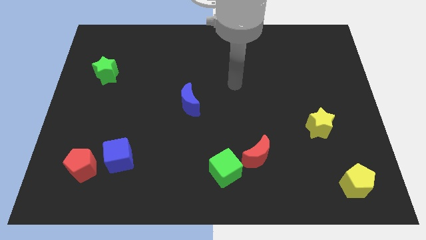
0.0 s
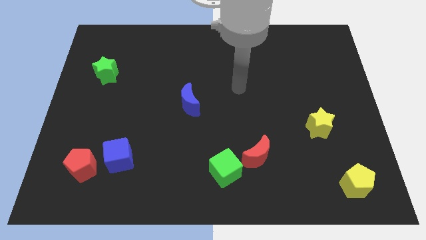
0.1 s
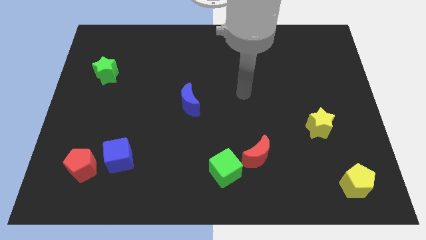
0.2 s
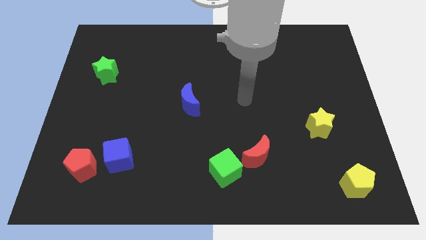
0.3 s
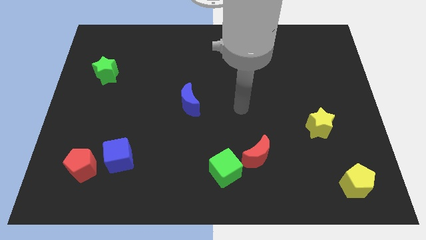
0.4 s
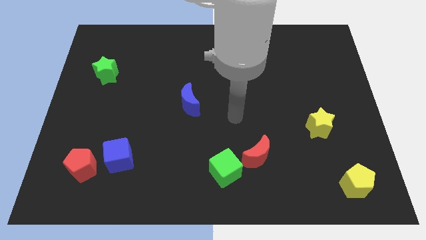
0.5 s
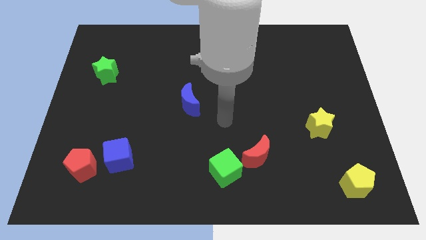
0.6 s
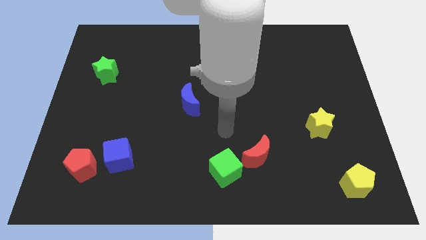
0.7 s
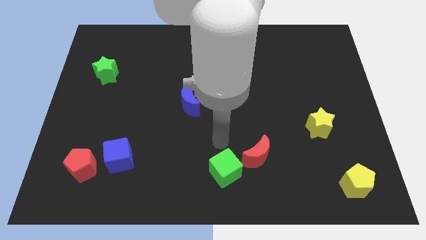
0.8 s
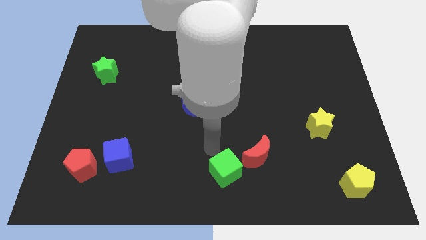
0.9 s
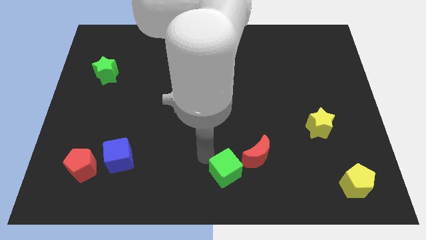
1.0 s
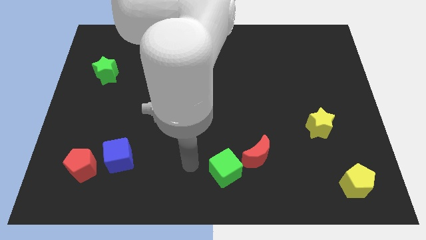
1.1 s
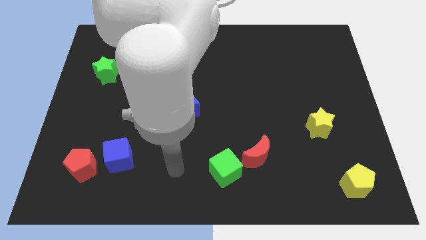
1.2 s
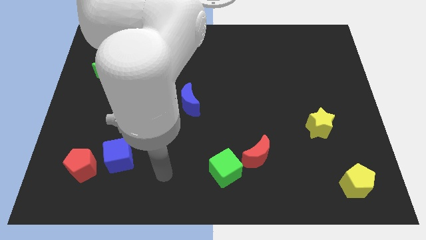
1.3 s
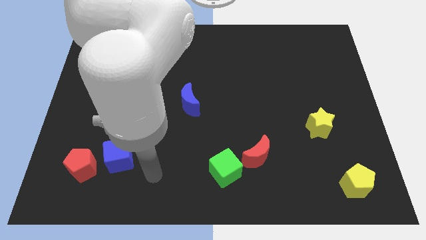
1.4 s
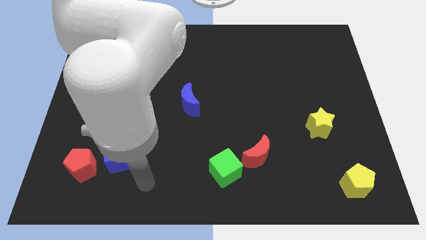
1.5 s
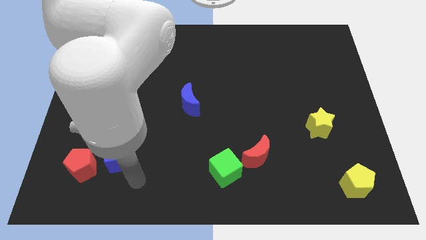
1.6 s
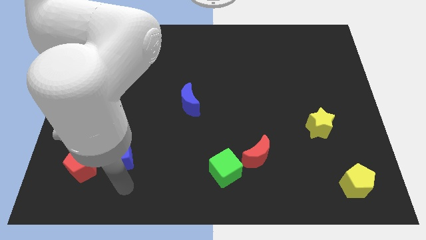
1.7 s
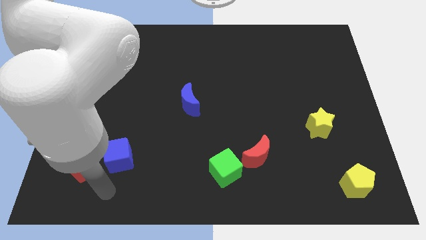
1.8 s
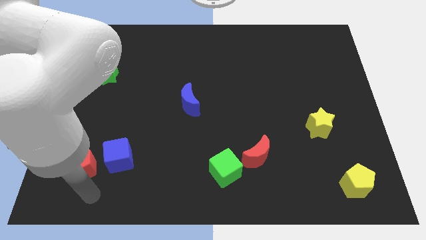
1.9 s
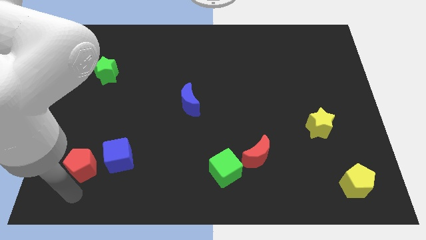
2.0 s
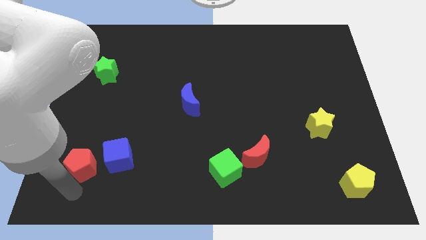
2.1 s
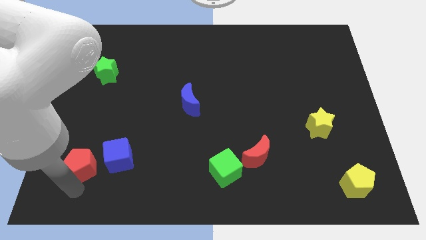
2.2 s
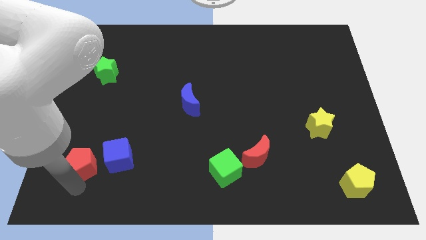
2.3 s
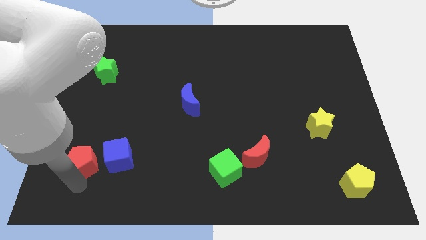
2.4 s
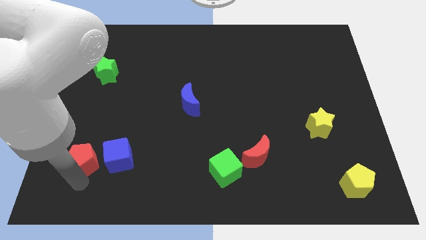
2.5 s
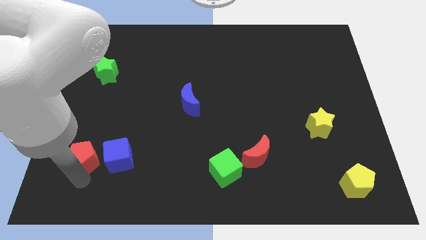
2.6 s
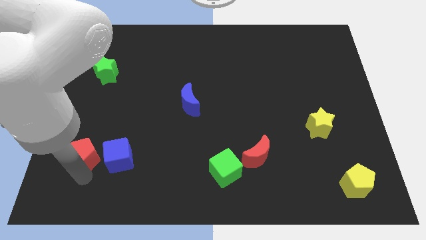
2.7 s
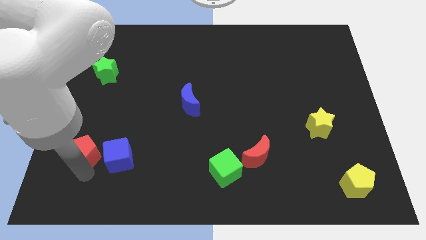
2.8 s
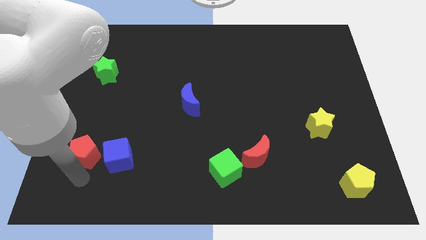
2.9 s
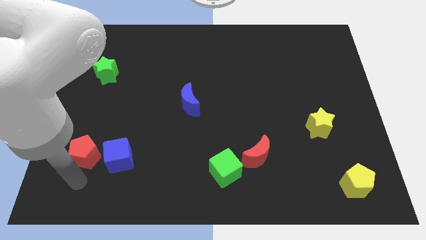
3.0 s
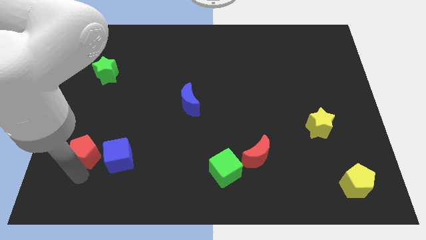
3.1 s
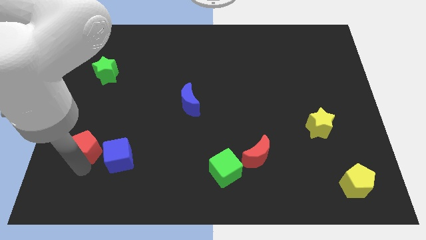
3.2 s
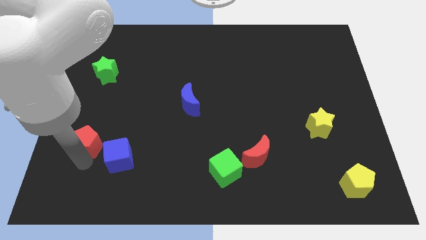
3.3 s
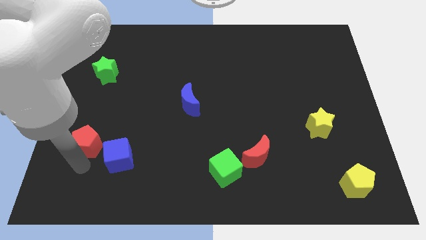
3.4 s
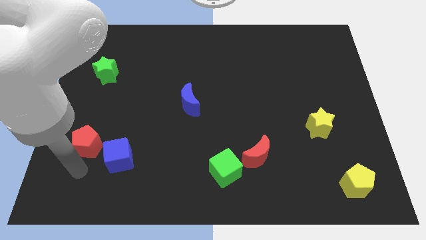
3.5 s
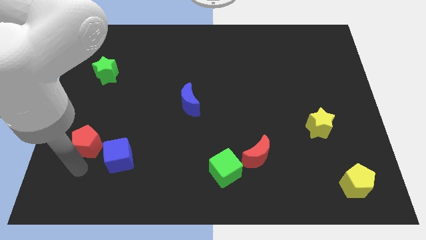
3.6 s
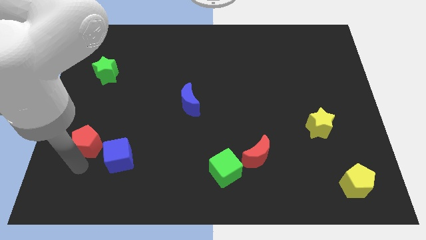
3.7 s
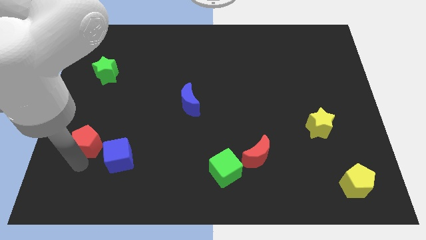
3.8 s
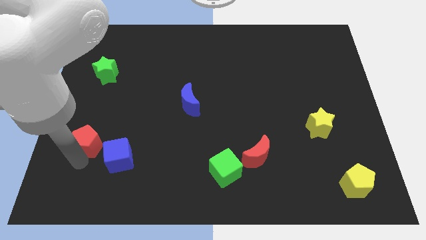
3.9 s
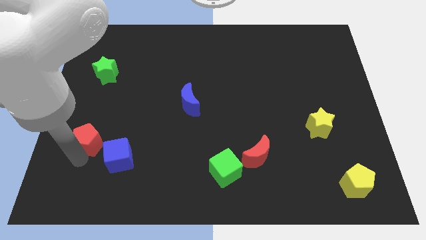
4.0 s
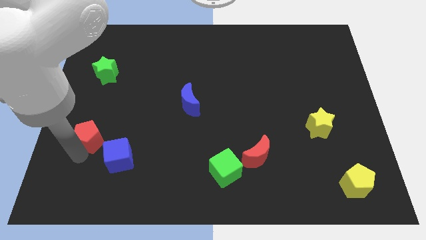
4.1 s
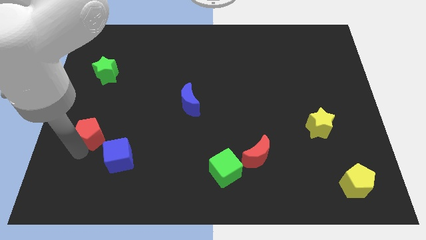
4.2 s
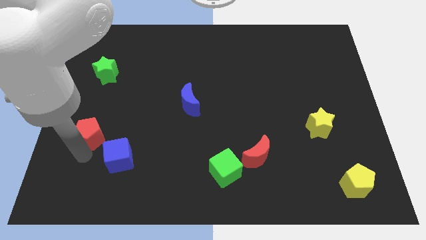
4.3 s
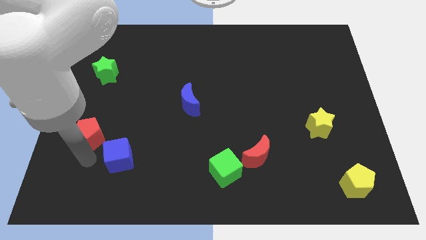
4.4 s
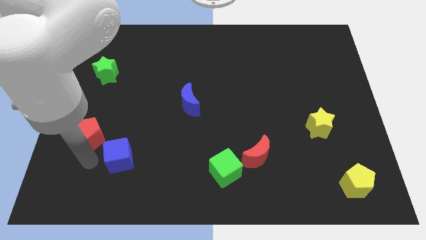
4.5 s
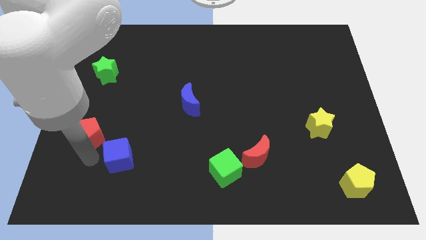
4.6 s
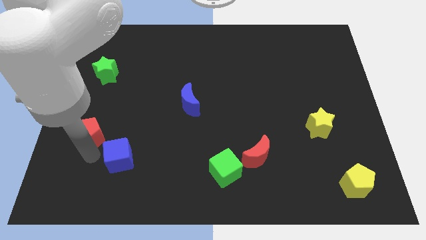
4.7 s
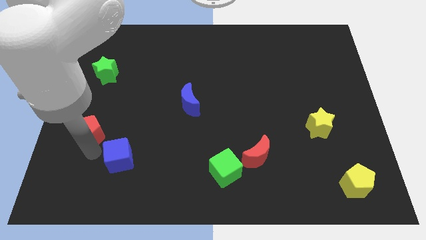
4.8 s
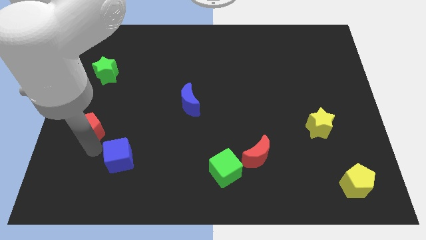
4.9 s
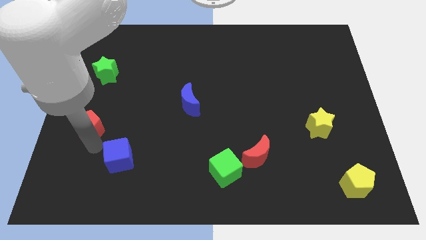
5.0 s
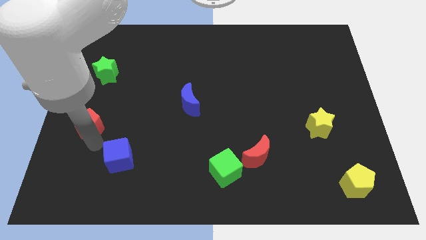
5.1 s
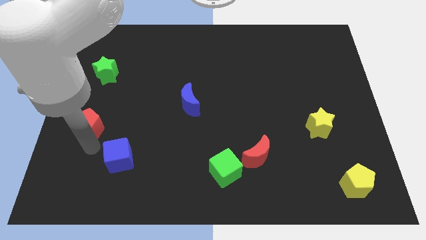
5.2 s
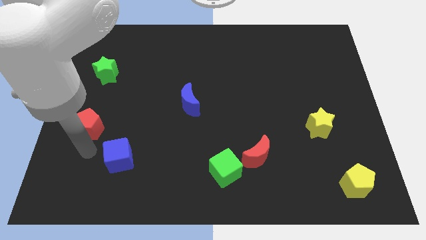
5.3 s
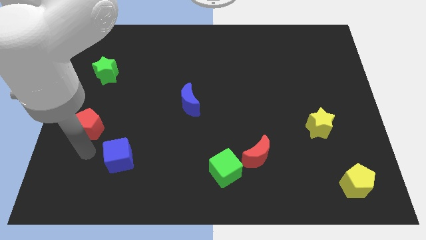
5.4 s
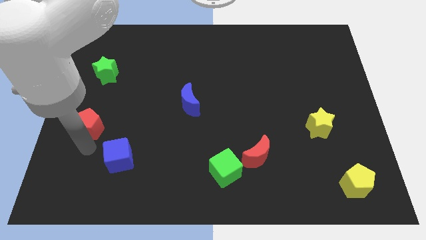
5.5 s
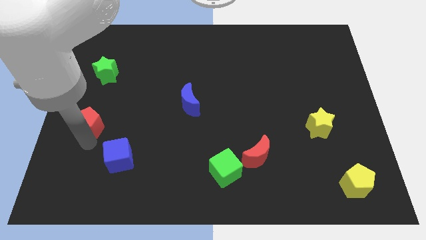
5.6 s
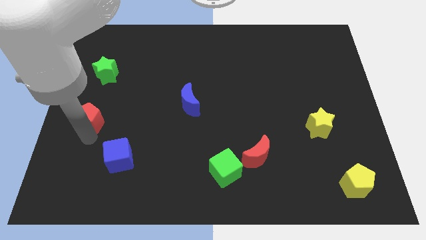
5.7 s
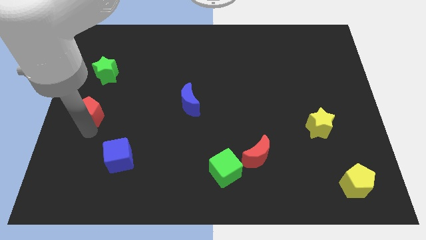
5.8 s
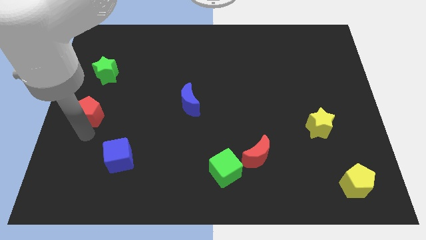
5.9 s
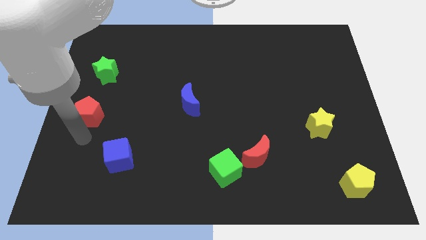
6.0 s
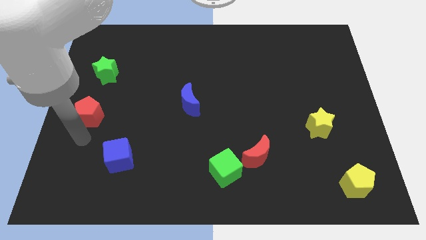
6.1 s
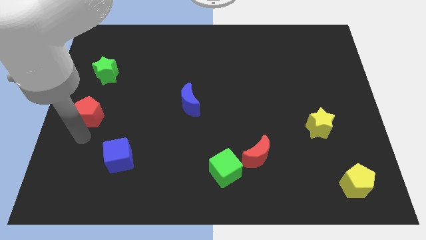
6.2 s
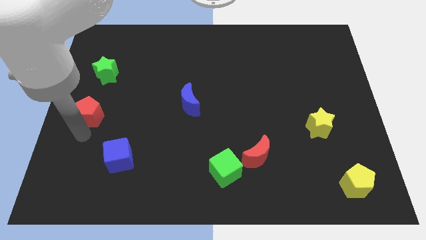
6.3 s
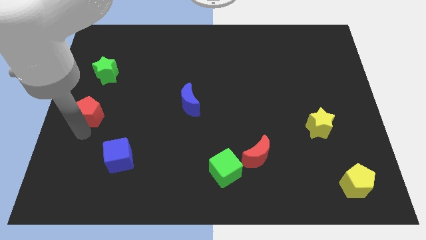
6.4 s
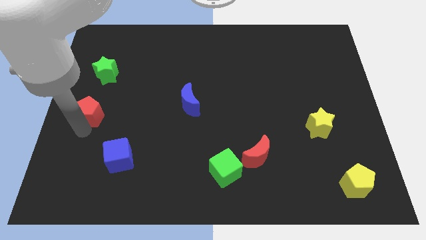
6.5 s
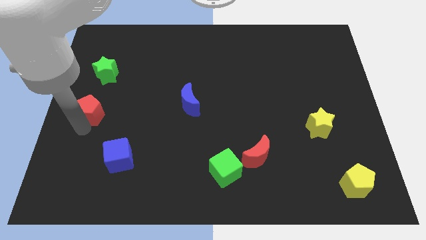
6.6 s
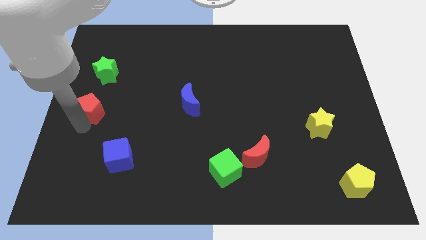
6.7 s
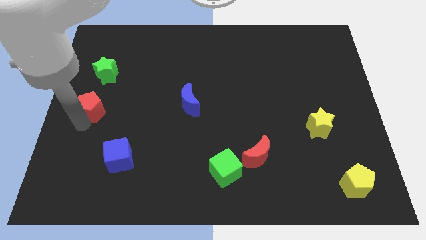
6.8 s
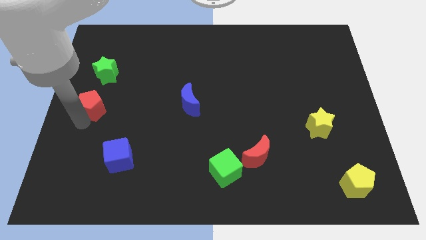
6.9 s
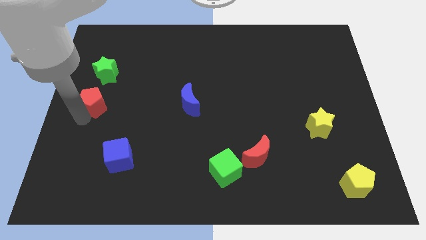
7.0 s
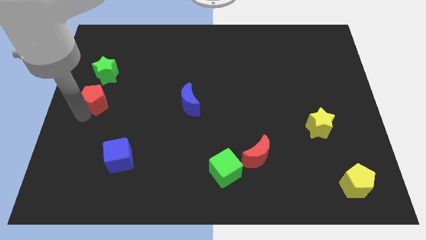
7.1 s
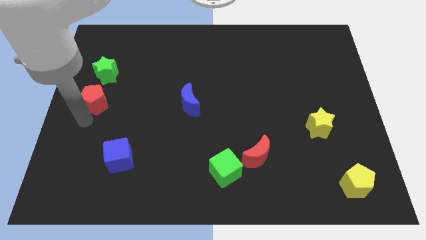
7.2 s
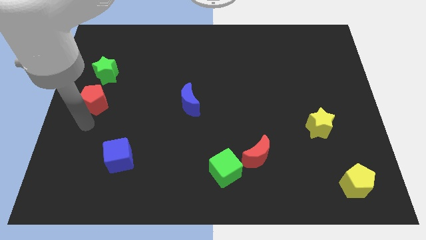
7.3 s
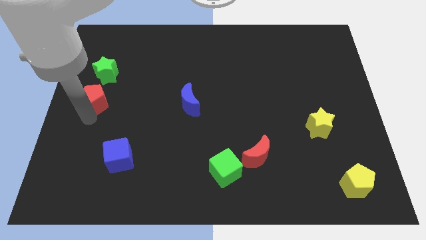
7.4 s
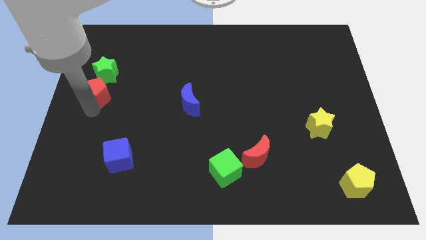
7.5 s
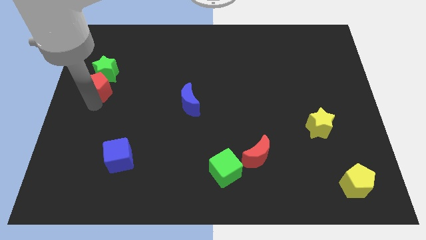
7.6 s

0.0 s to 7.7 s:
put the red pentagon close to the green star
